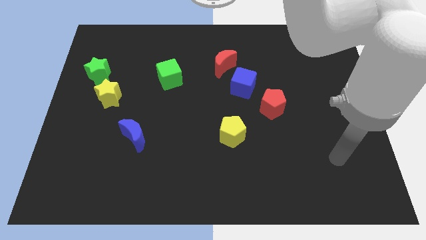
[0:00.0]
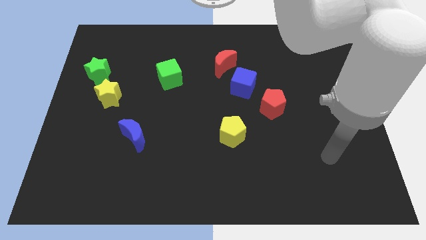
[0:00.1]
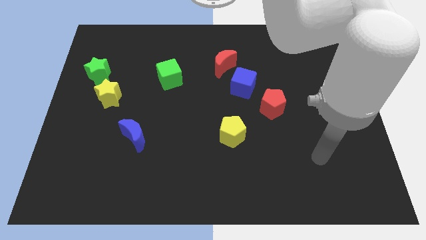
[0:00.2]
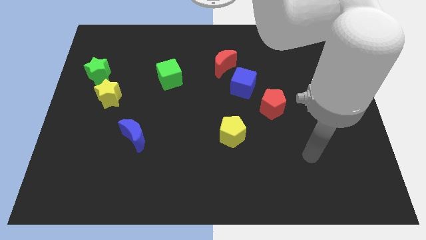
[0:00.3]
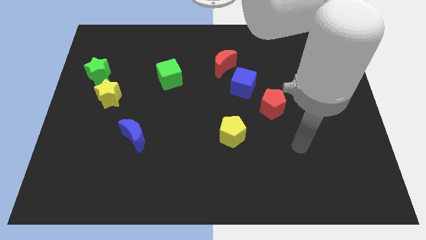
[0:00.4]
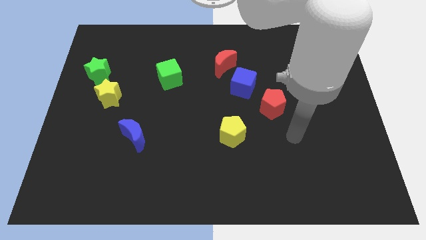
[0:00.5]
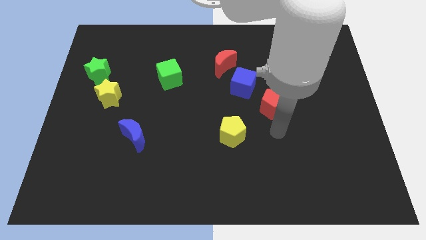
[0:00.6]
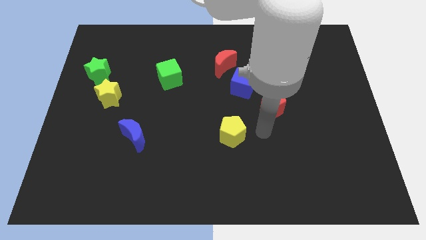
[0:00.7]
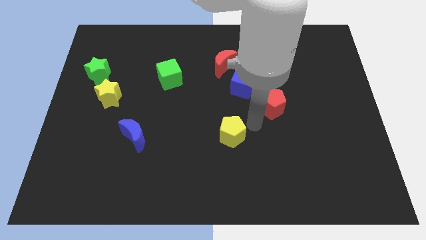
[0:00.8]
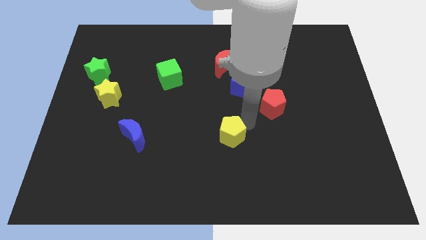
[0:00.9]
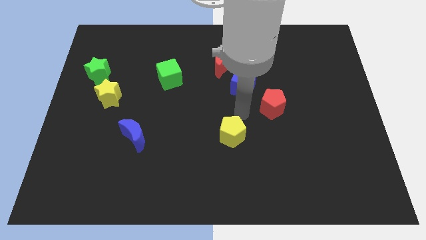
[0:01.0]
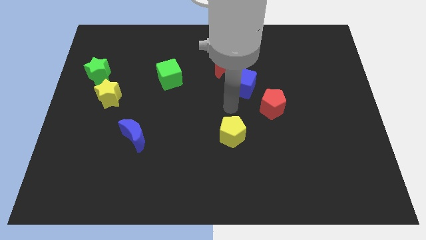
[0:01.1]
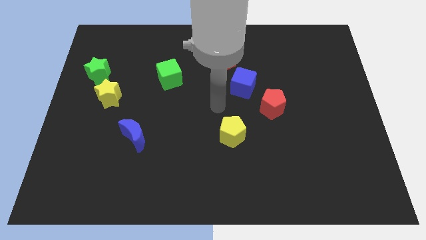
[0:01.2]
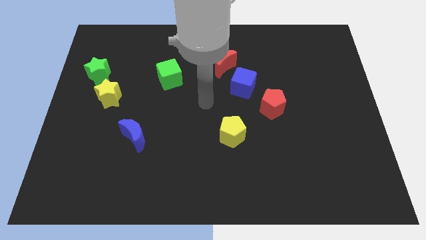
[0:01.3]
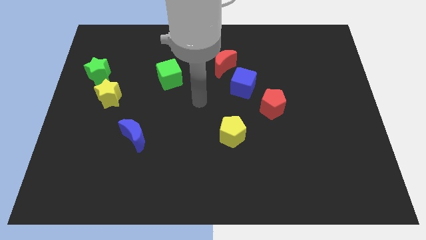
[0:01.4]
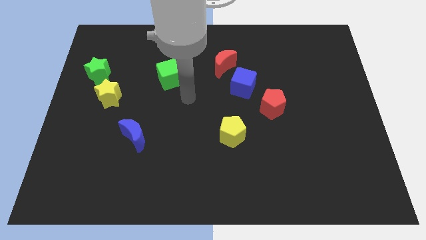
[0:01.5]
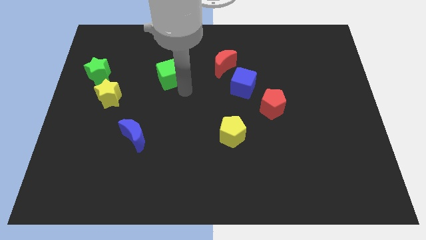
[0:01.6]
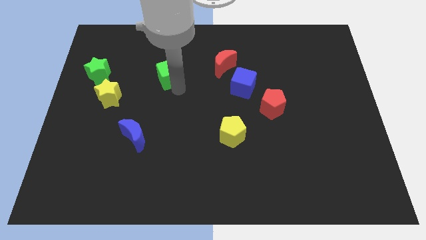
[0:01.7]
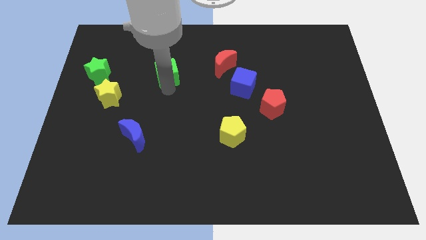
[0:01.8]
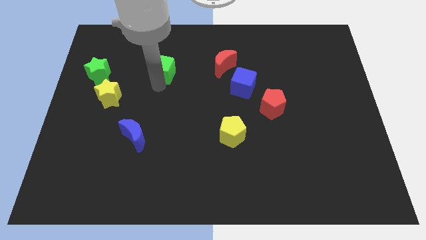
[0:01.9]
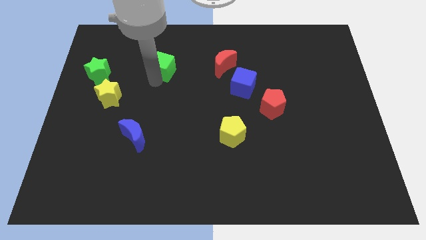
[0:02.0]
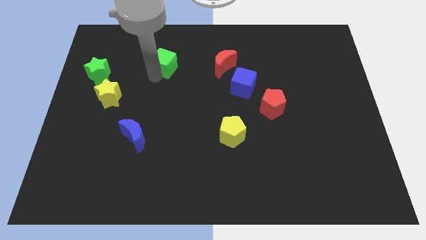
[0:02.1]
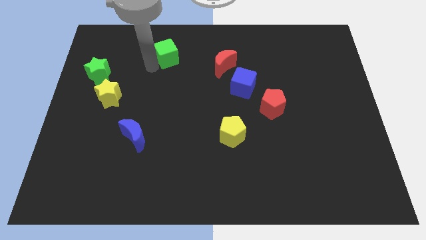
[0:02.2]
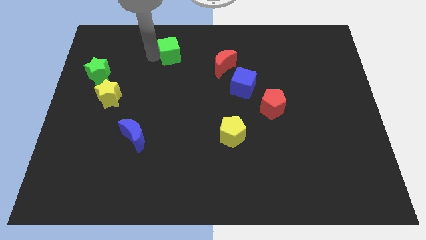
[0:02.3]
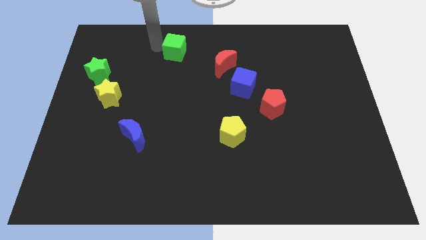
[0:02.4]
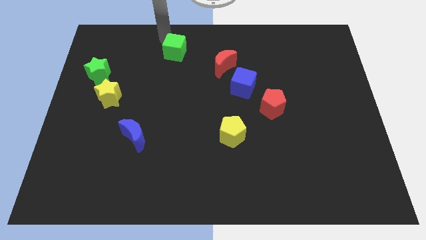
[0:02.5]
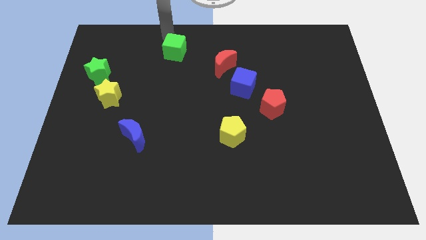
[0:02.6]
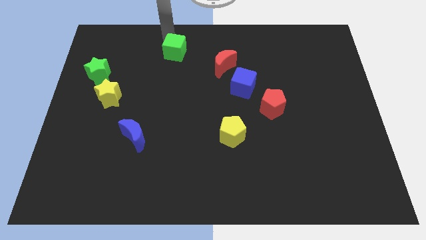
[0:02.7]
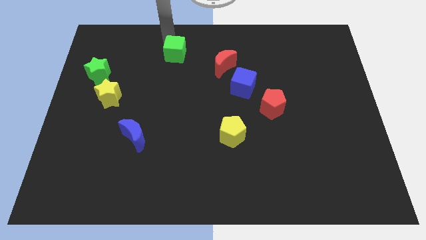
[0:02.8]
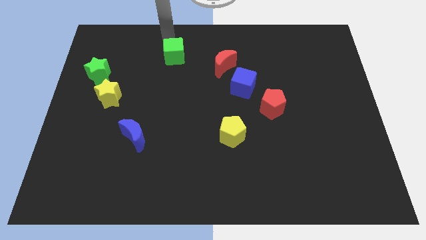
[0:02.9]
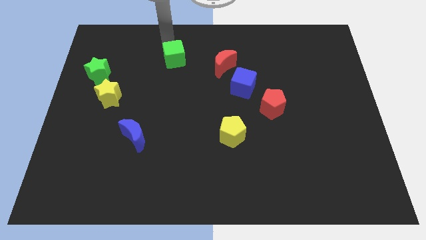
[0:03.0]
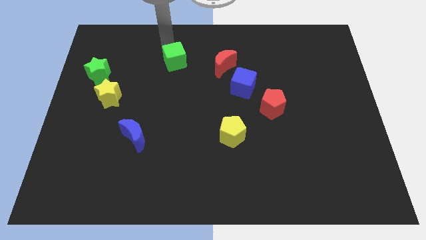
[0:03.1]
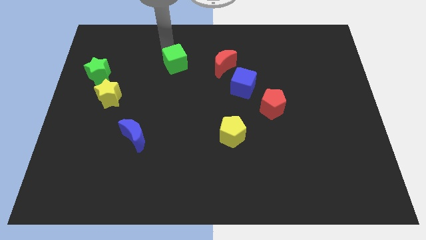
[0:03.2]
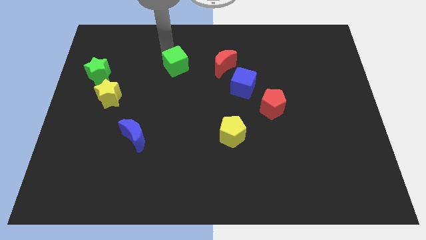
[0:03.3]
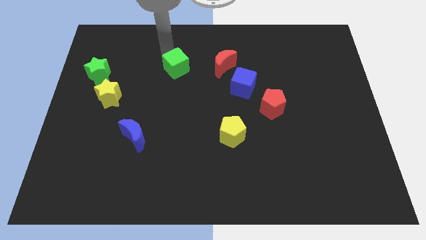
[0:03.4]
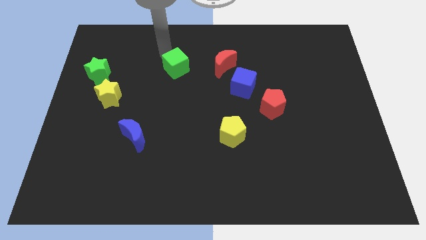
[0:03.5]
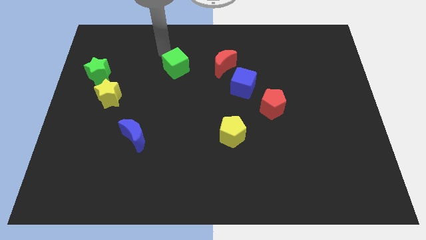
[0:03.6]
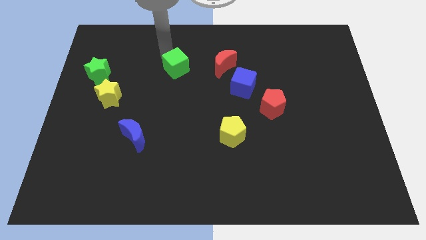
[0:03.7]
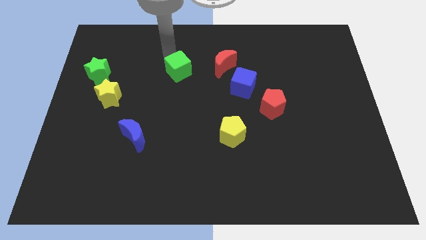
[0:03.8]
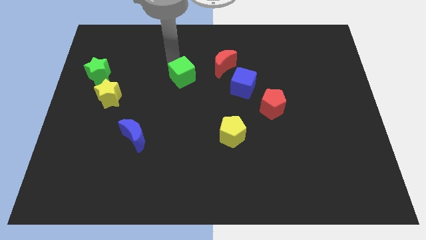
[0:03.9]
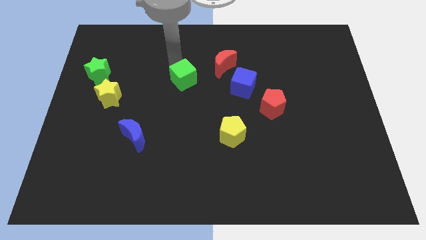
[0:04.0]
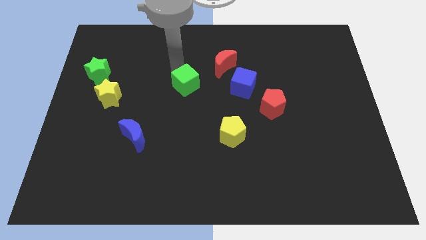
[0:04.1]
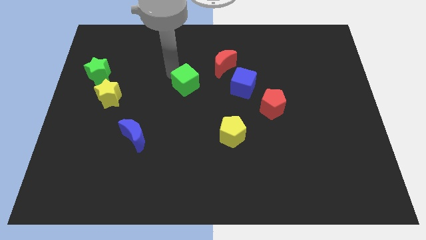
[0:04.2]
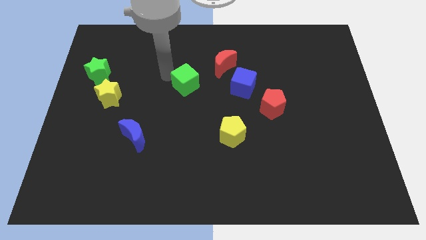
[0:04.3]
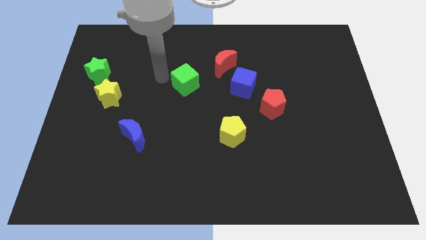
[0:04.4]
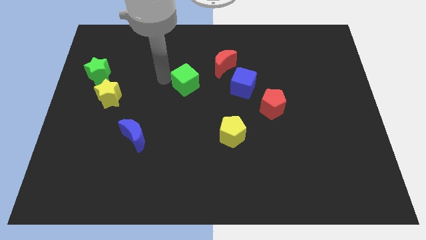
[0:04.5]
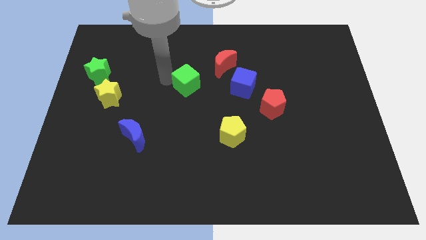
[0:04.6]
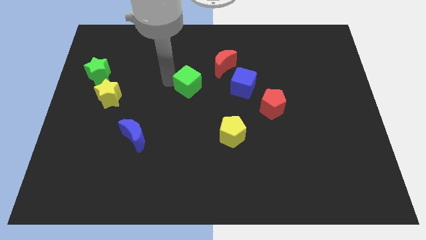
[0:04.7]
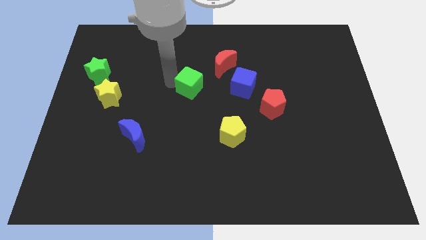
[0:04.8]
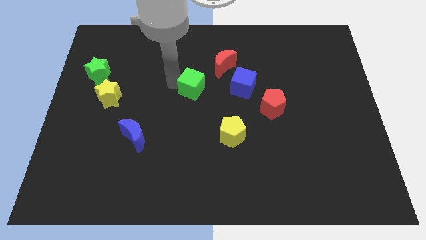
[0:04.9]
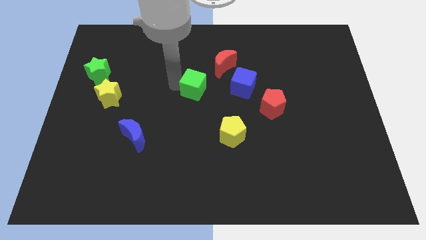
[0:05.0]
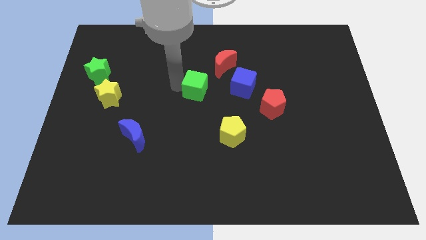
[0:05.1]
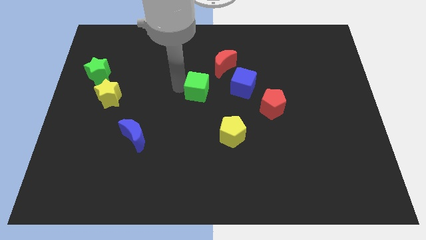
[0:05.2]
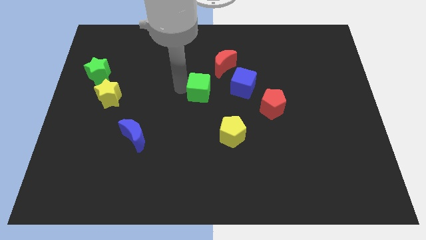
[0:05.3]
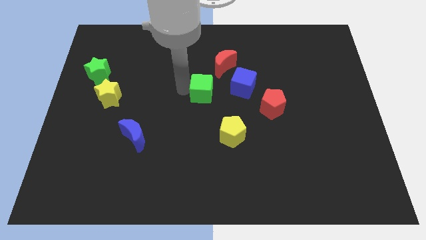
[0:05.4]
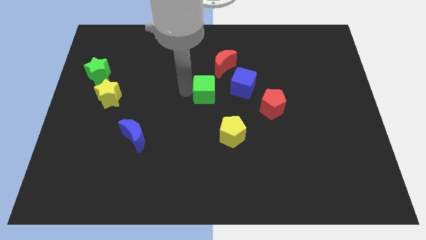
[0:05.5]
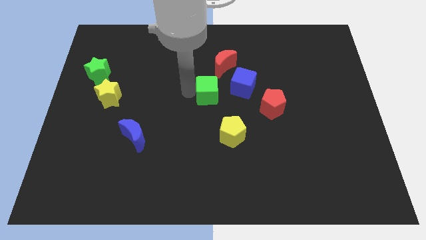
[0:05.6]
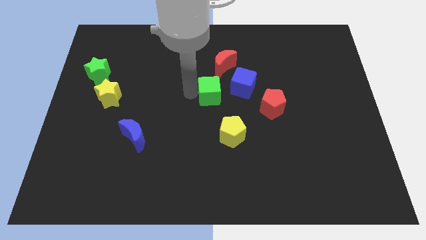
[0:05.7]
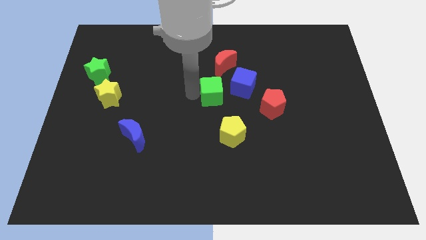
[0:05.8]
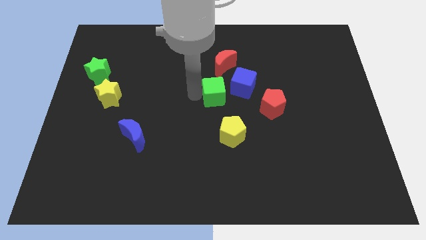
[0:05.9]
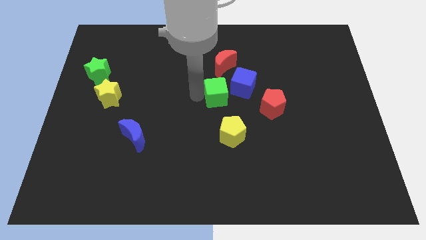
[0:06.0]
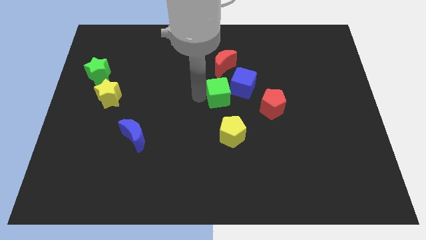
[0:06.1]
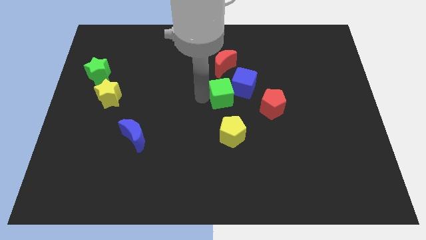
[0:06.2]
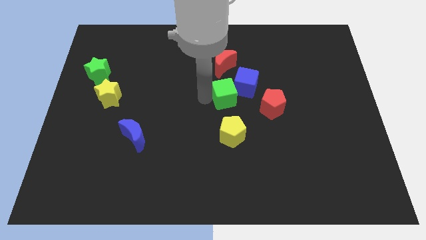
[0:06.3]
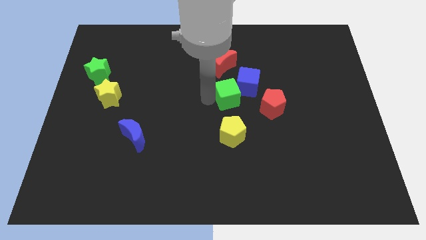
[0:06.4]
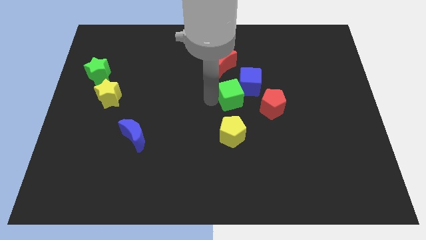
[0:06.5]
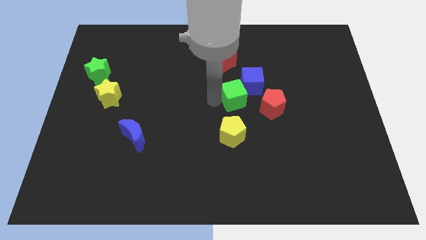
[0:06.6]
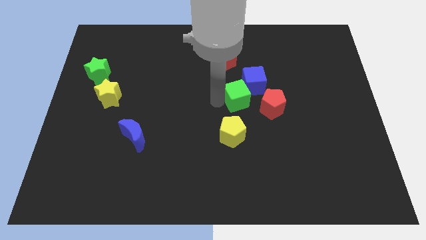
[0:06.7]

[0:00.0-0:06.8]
move the green cube next to the blue cube
